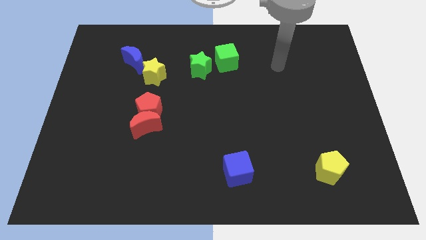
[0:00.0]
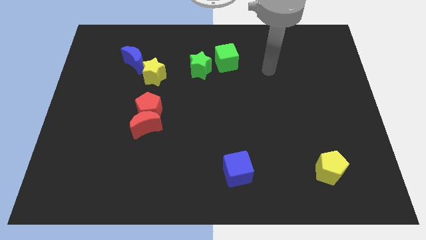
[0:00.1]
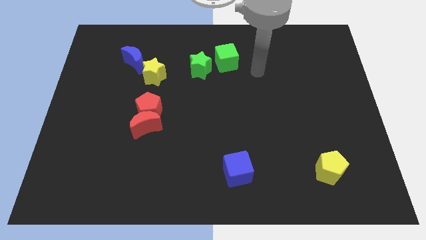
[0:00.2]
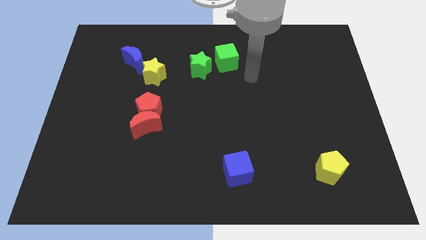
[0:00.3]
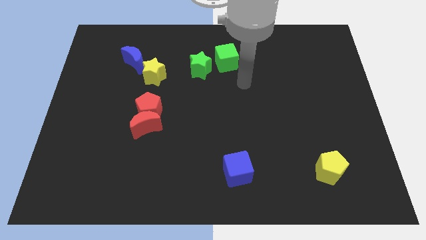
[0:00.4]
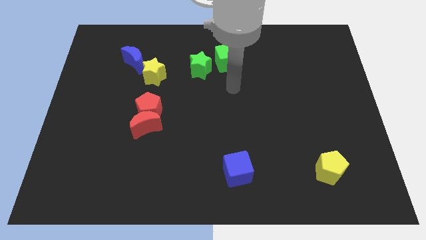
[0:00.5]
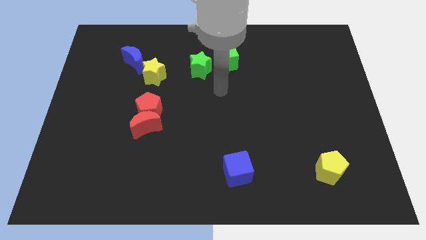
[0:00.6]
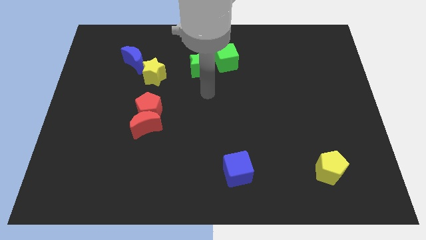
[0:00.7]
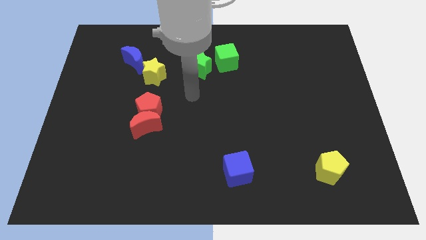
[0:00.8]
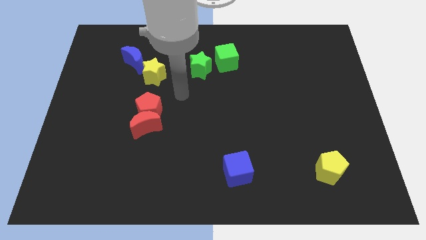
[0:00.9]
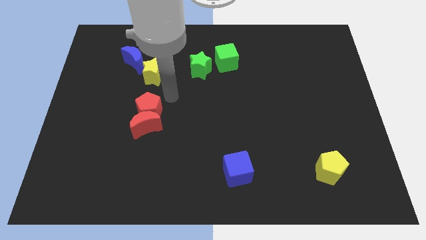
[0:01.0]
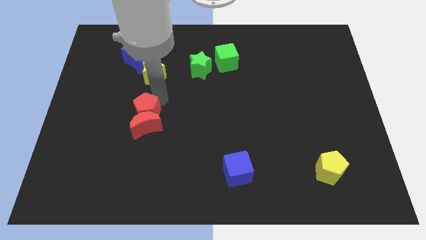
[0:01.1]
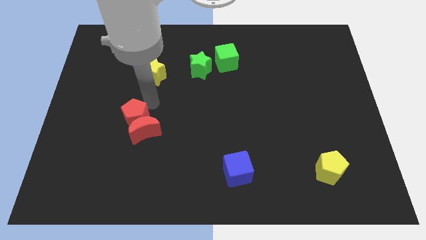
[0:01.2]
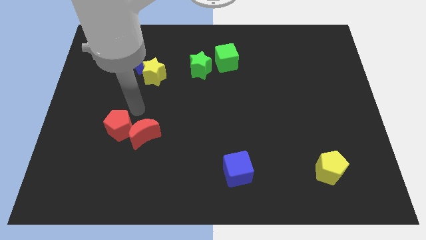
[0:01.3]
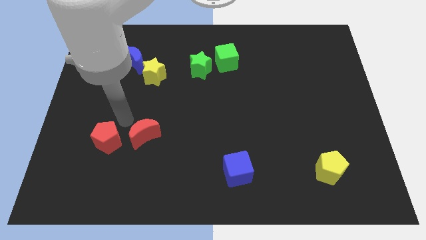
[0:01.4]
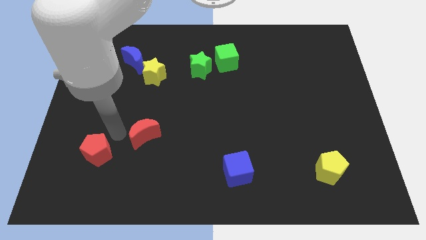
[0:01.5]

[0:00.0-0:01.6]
move the red moon away from the red pentagon

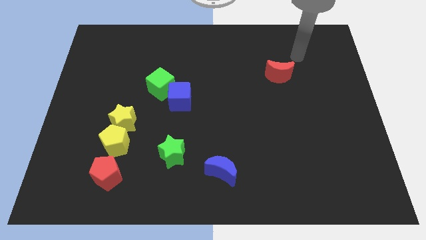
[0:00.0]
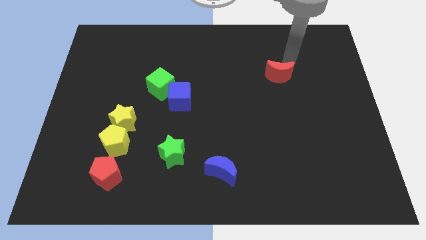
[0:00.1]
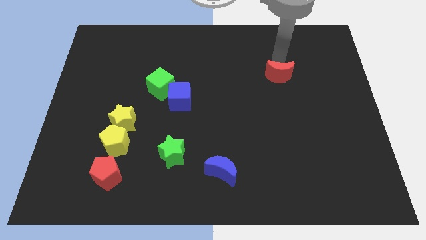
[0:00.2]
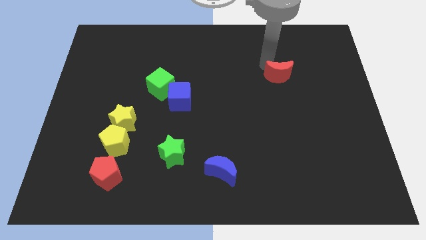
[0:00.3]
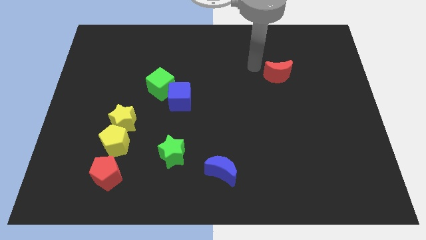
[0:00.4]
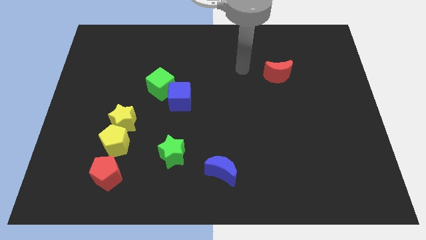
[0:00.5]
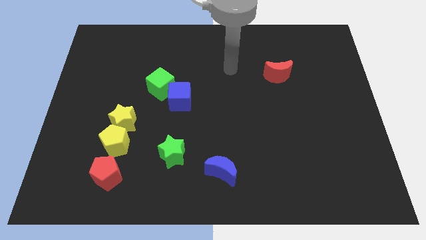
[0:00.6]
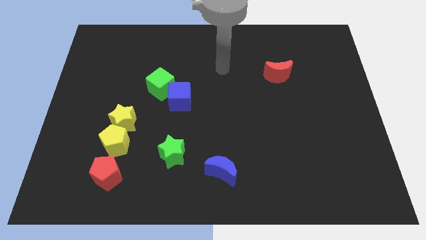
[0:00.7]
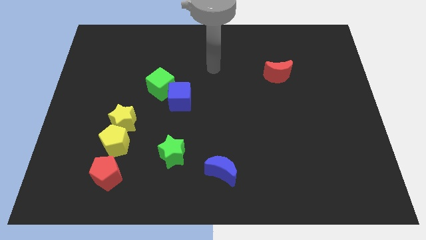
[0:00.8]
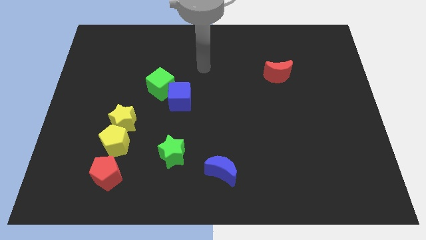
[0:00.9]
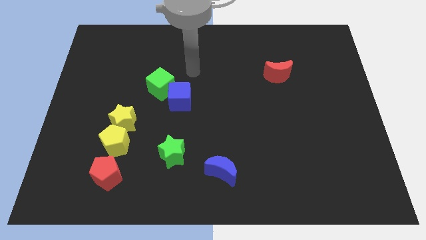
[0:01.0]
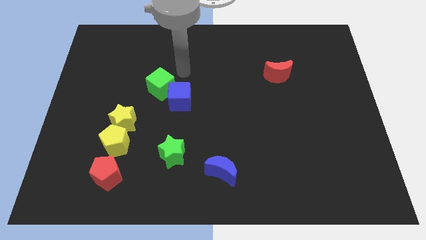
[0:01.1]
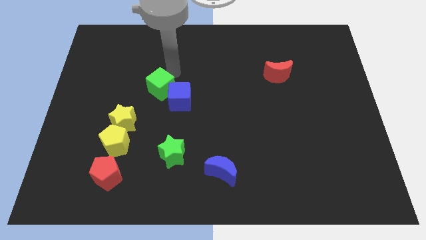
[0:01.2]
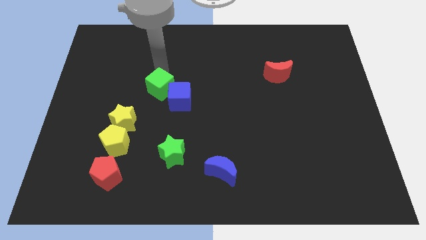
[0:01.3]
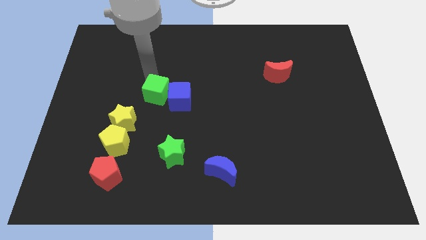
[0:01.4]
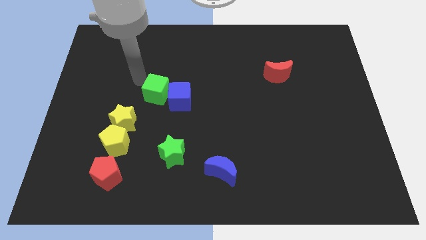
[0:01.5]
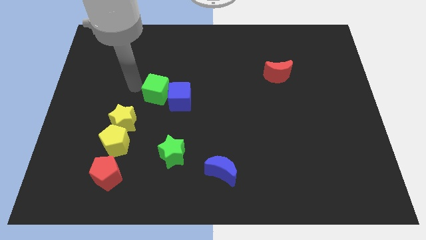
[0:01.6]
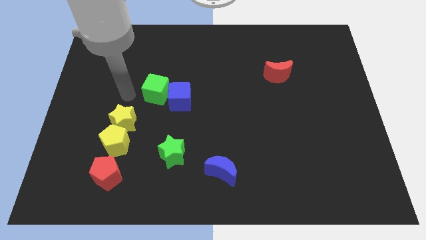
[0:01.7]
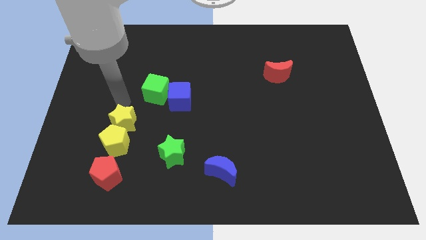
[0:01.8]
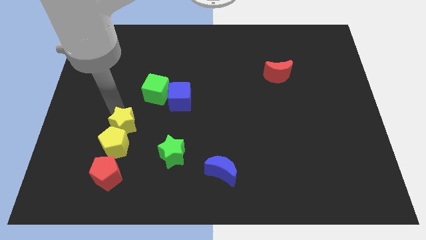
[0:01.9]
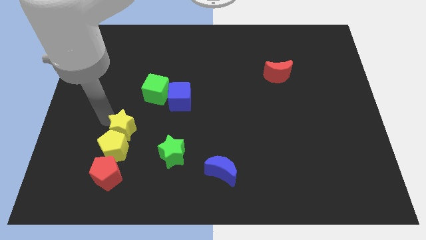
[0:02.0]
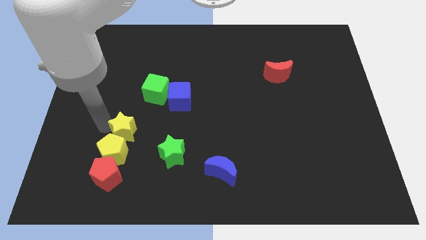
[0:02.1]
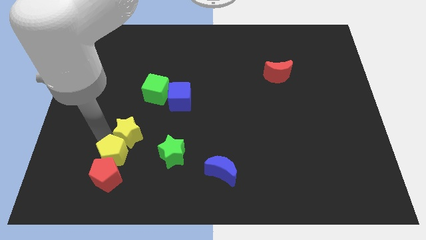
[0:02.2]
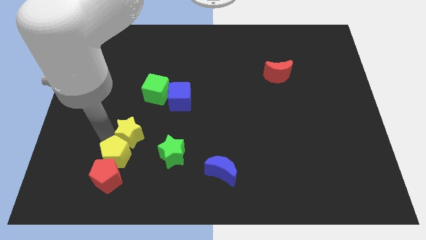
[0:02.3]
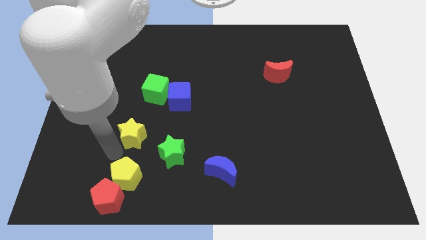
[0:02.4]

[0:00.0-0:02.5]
separate the yellow star from the yellow pentagon

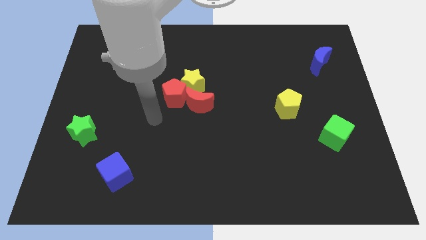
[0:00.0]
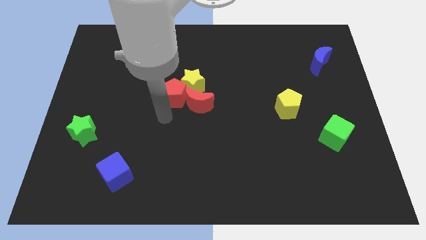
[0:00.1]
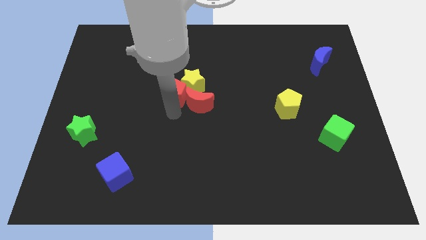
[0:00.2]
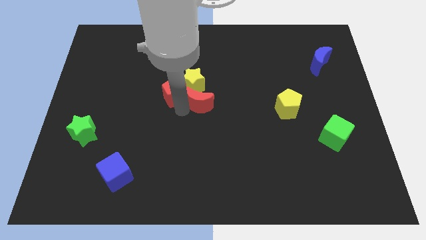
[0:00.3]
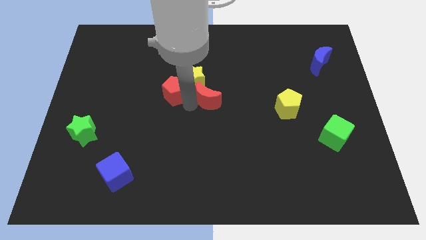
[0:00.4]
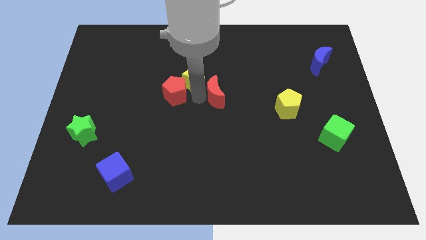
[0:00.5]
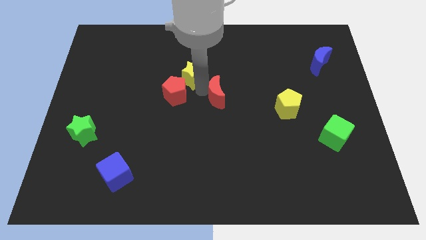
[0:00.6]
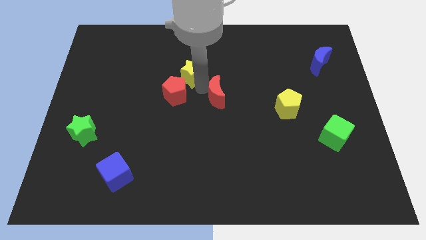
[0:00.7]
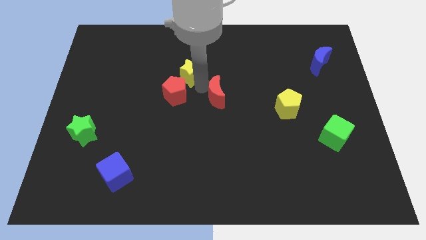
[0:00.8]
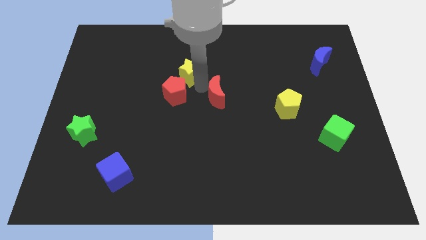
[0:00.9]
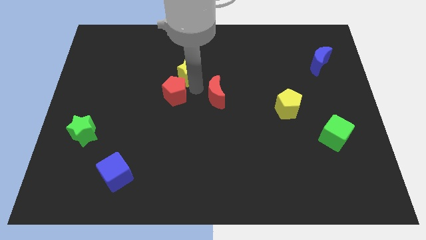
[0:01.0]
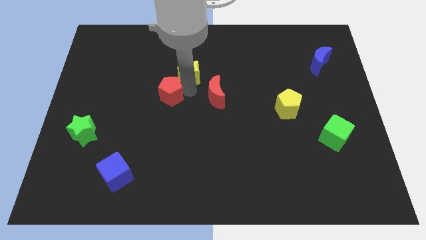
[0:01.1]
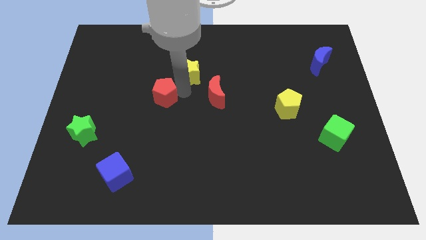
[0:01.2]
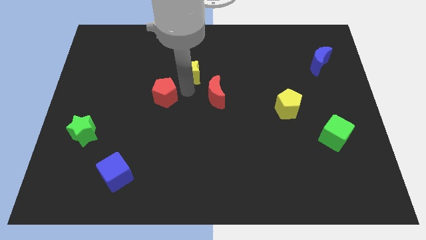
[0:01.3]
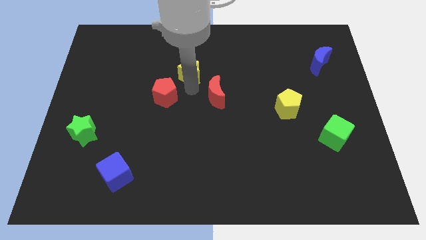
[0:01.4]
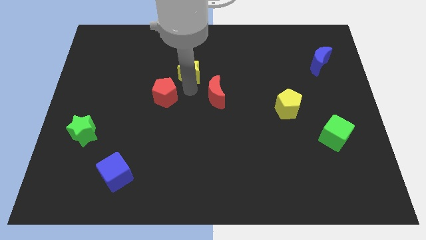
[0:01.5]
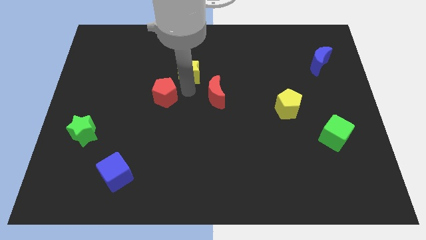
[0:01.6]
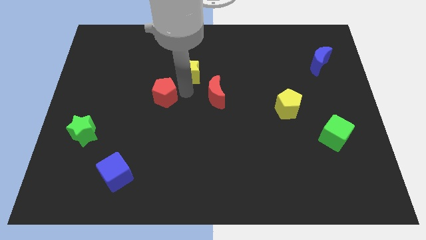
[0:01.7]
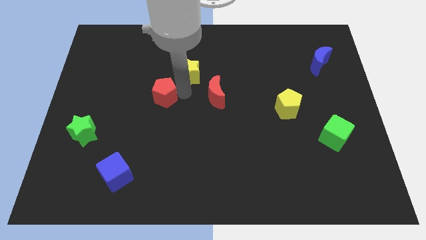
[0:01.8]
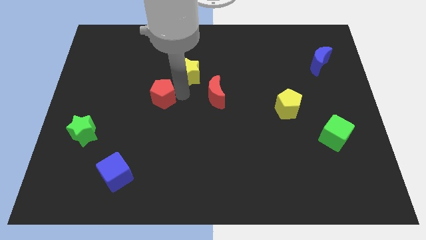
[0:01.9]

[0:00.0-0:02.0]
move the red pentagon away from the yellow star and red moon

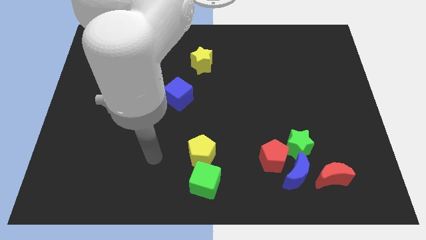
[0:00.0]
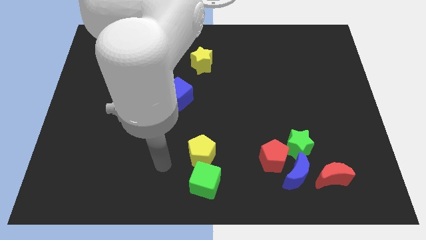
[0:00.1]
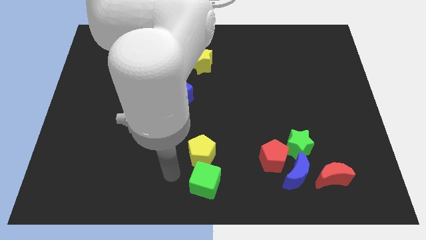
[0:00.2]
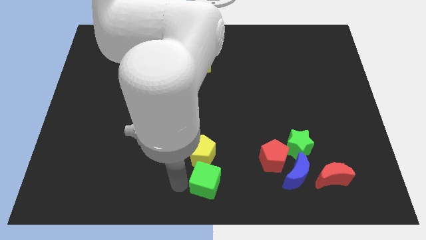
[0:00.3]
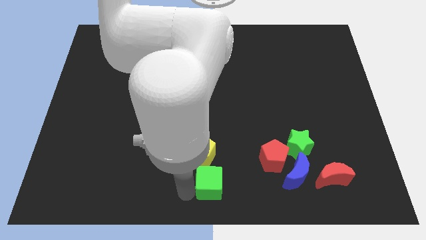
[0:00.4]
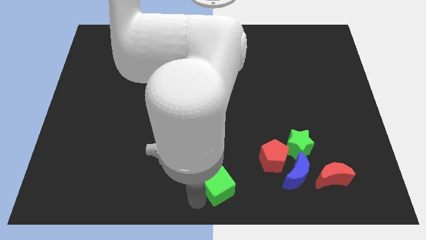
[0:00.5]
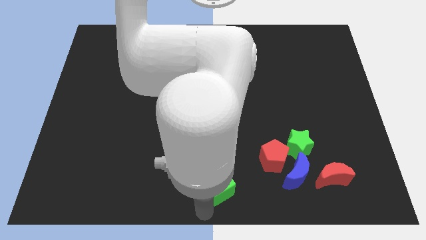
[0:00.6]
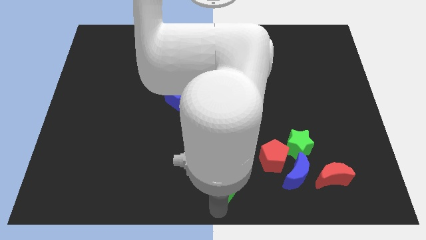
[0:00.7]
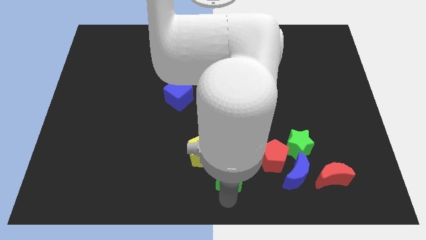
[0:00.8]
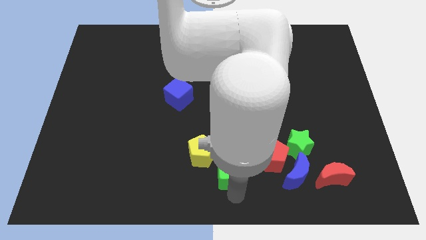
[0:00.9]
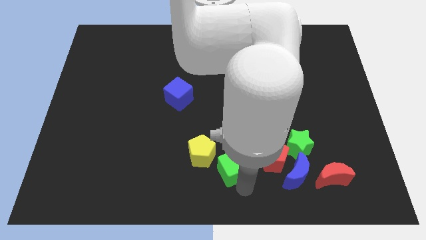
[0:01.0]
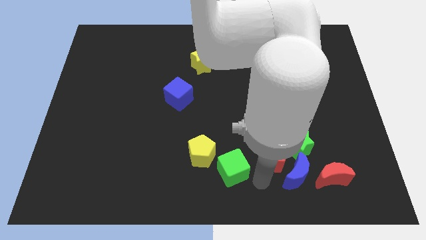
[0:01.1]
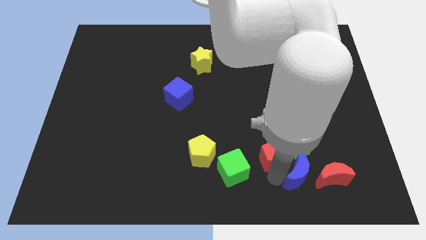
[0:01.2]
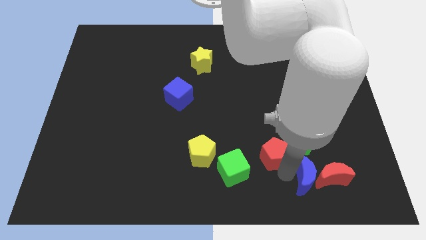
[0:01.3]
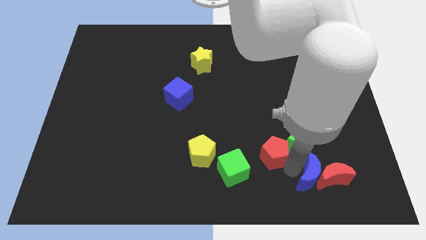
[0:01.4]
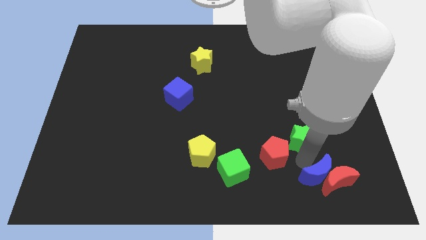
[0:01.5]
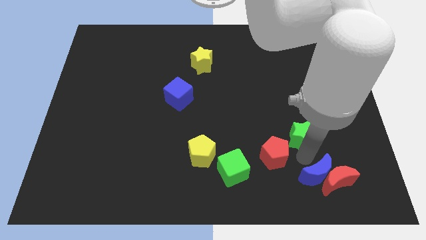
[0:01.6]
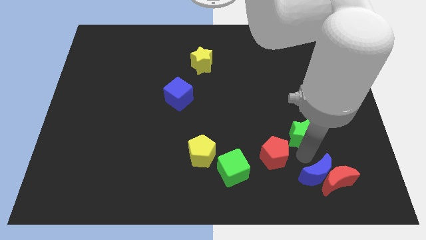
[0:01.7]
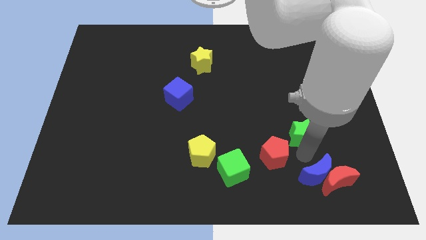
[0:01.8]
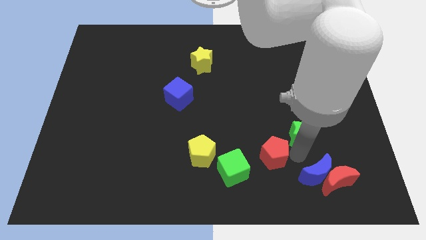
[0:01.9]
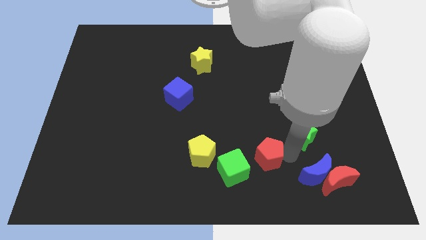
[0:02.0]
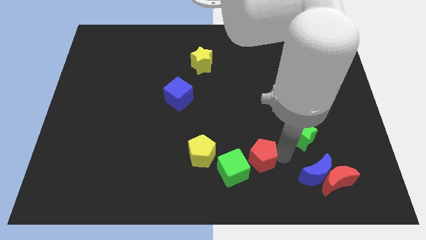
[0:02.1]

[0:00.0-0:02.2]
pull the red pentagon apart from the blue moon and green star

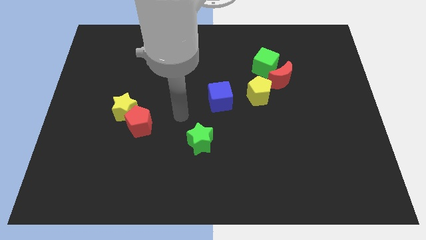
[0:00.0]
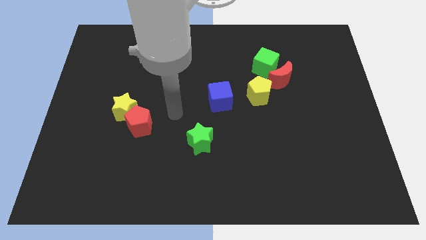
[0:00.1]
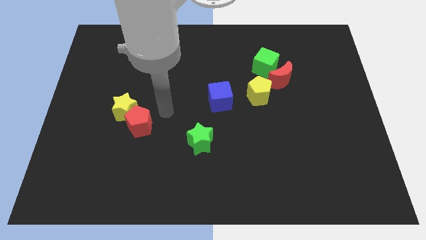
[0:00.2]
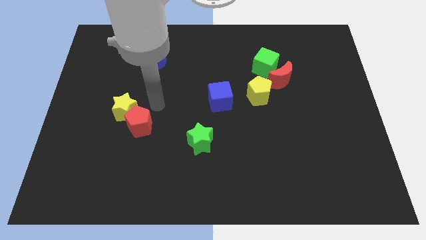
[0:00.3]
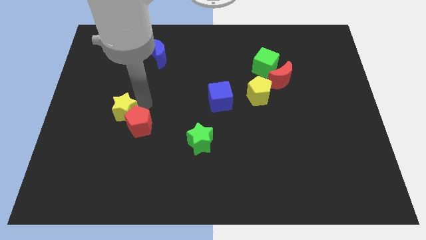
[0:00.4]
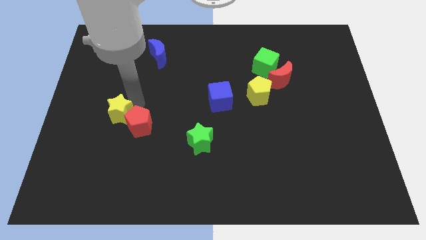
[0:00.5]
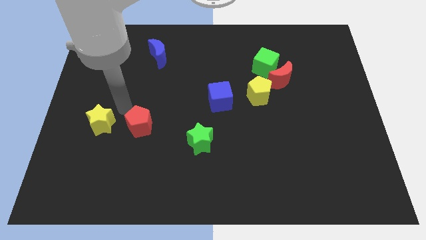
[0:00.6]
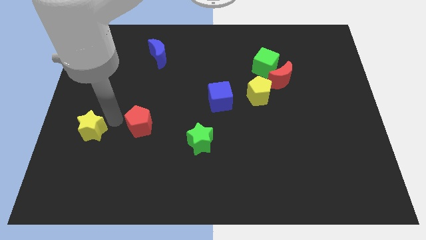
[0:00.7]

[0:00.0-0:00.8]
move the red pentagon away from the yellow star

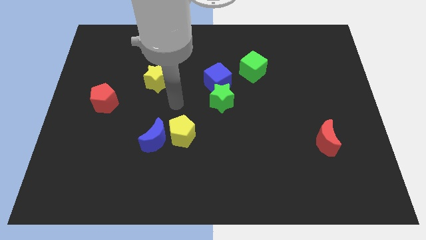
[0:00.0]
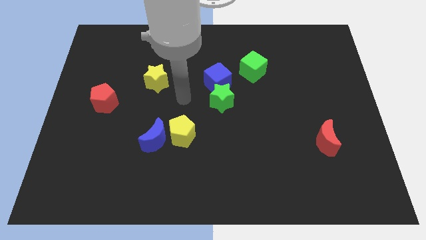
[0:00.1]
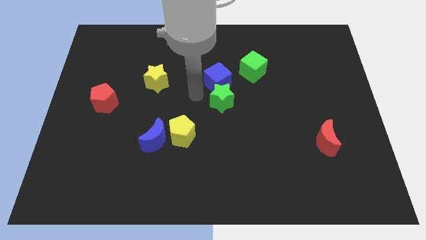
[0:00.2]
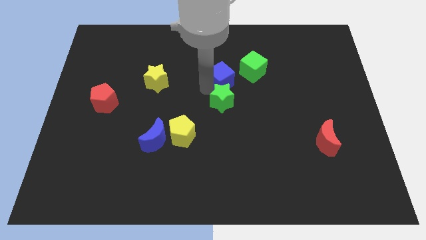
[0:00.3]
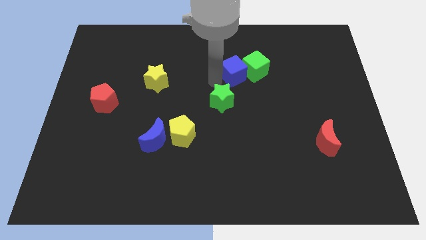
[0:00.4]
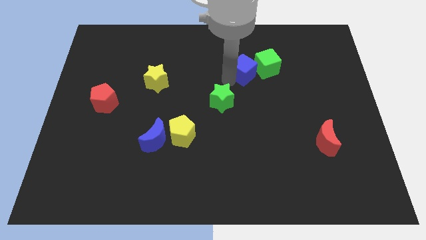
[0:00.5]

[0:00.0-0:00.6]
pull the green star apart from the blue cube
